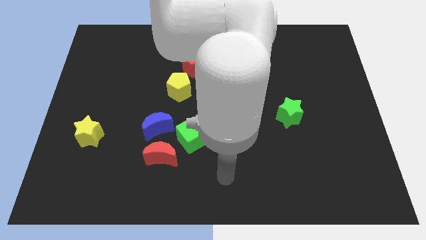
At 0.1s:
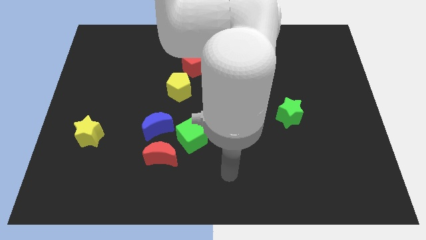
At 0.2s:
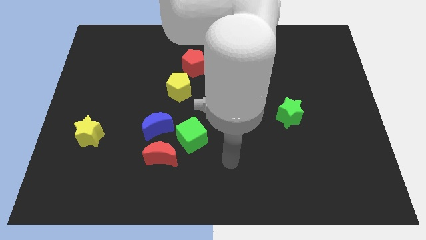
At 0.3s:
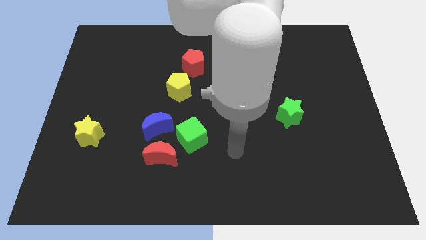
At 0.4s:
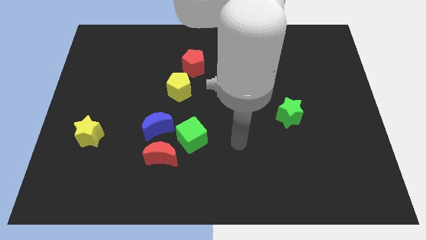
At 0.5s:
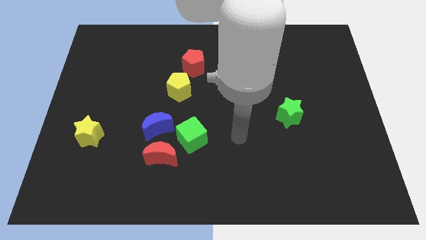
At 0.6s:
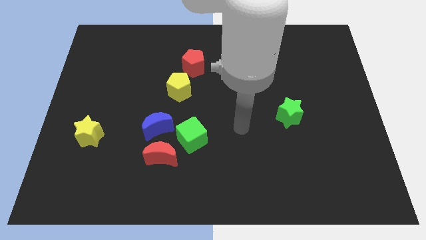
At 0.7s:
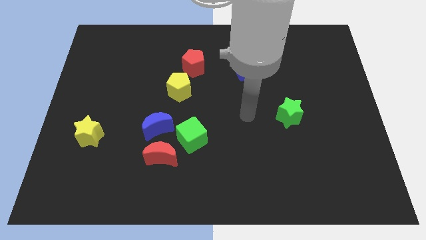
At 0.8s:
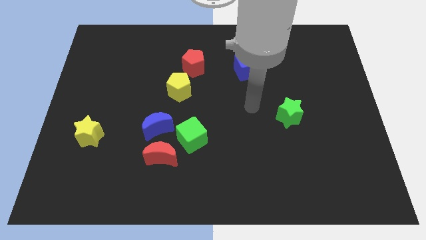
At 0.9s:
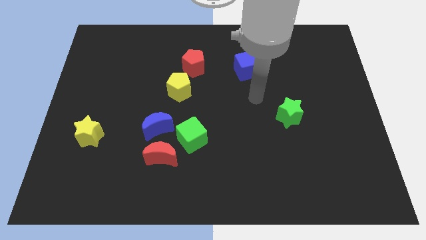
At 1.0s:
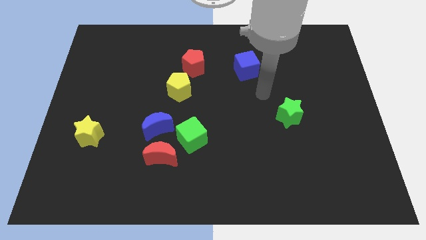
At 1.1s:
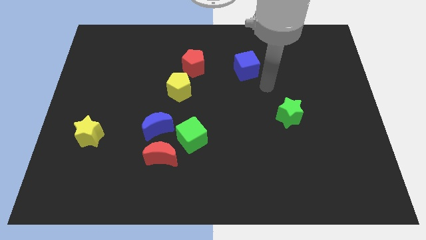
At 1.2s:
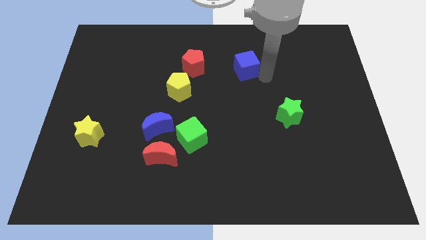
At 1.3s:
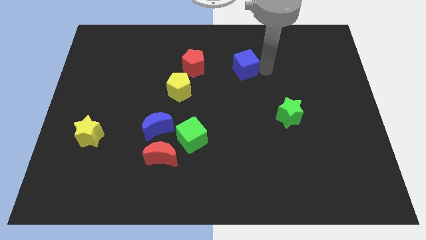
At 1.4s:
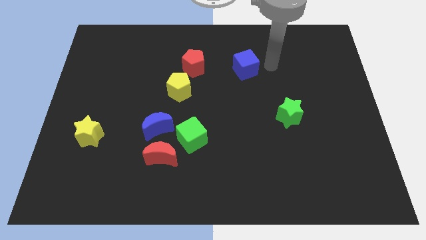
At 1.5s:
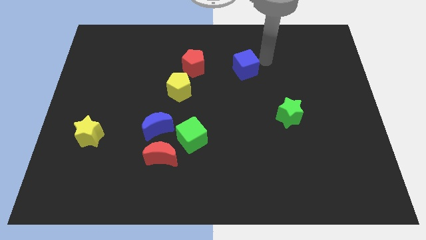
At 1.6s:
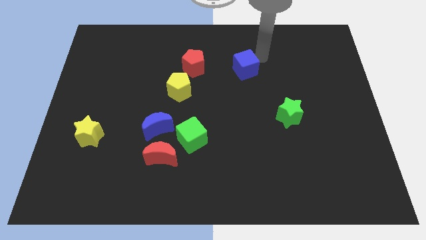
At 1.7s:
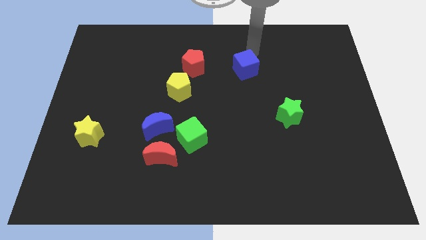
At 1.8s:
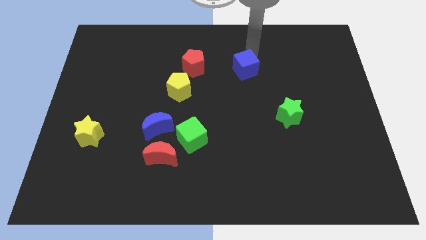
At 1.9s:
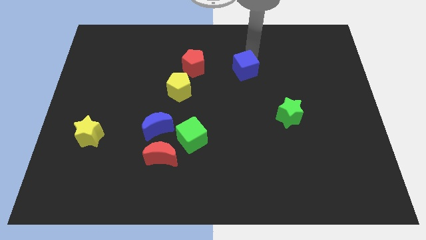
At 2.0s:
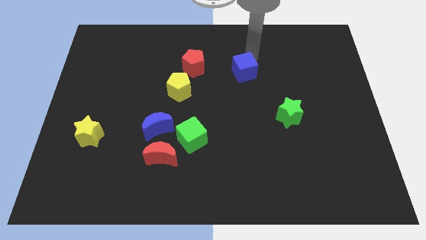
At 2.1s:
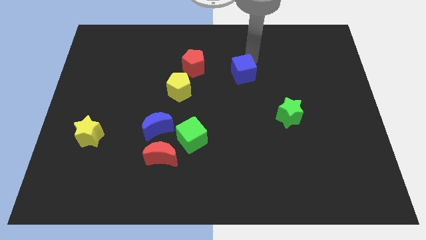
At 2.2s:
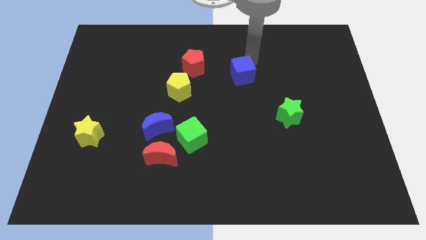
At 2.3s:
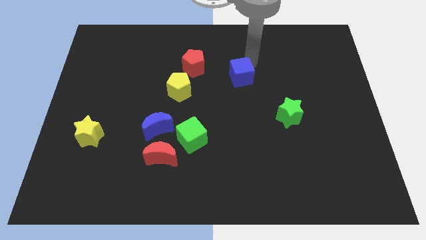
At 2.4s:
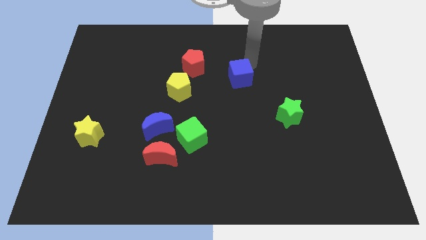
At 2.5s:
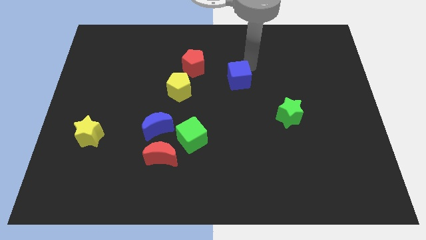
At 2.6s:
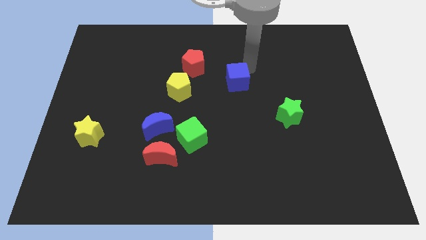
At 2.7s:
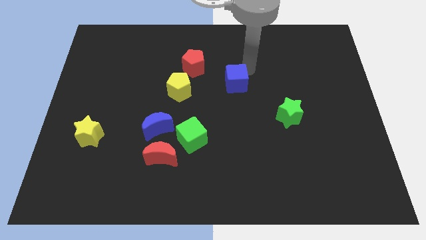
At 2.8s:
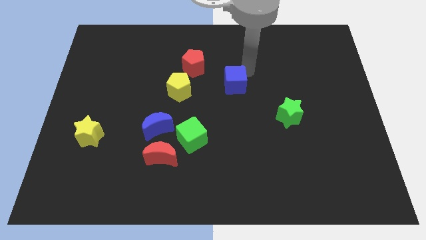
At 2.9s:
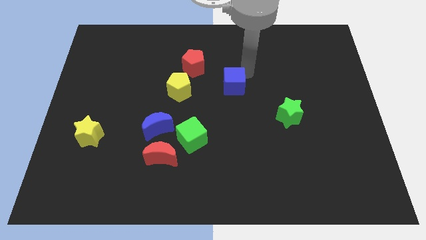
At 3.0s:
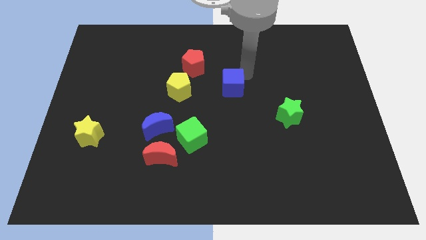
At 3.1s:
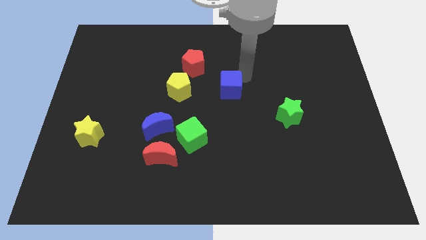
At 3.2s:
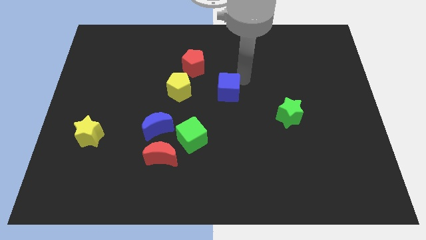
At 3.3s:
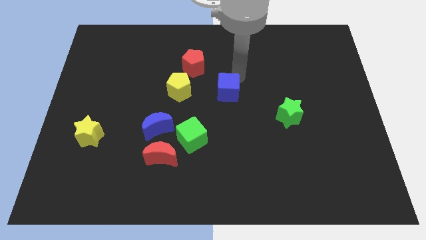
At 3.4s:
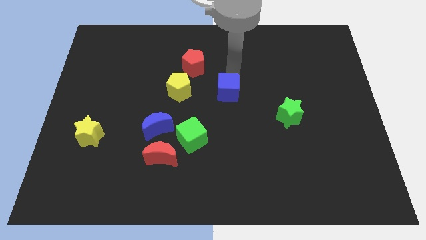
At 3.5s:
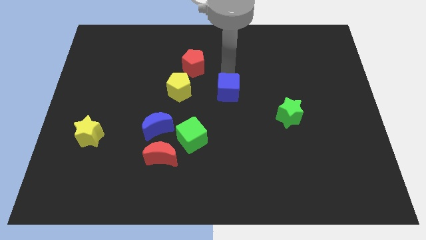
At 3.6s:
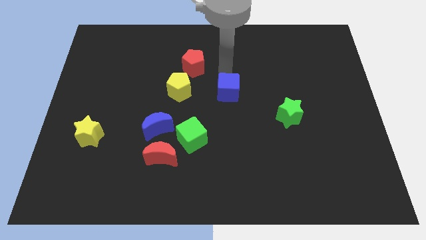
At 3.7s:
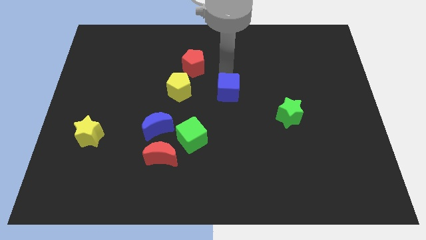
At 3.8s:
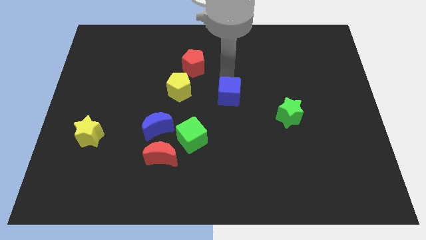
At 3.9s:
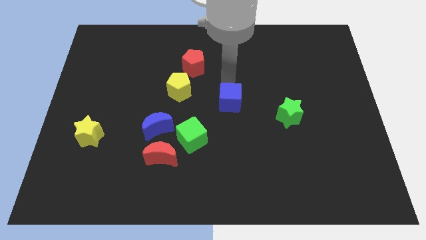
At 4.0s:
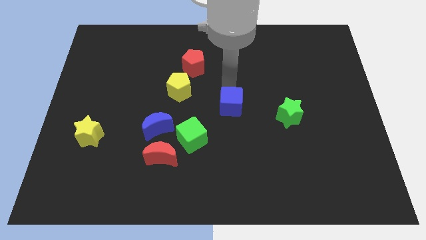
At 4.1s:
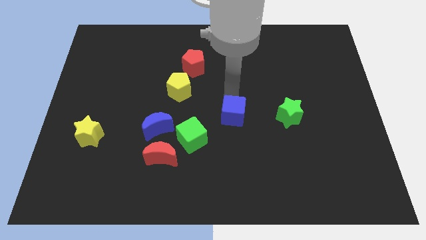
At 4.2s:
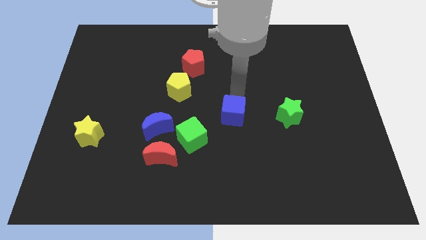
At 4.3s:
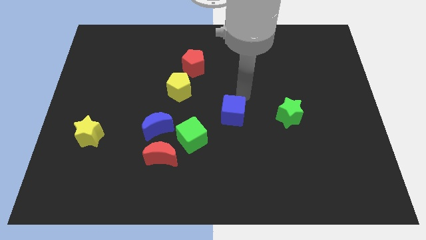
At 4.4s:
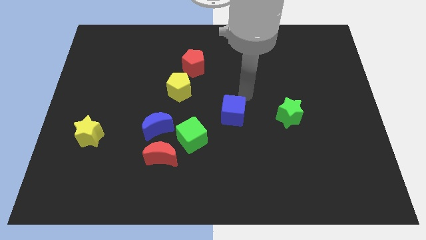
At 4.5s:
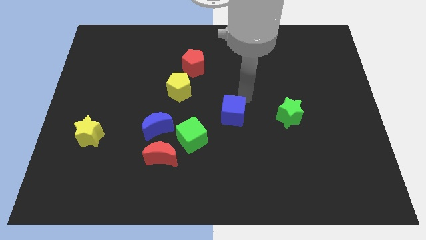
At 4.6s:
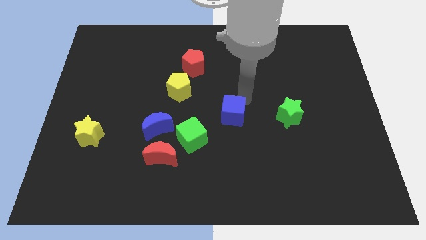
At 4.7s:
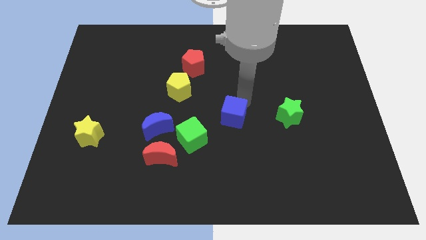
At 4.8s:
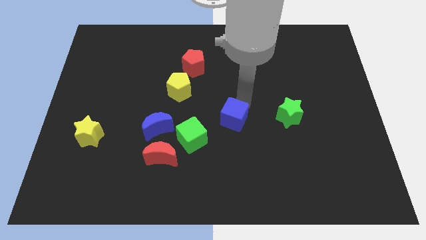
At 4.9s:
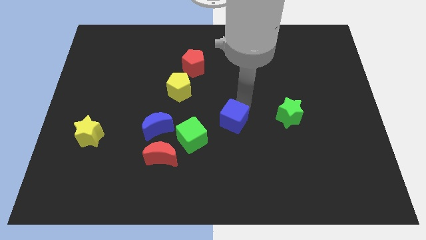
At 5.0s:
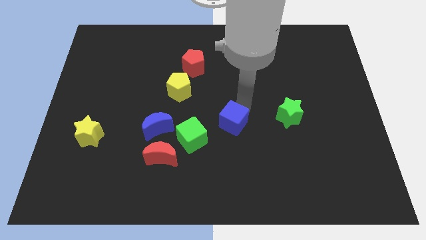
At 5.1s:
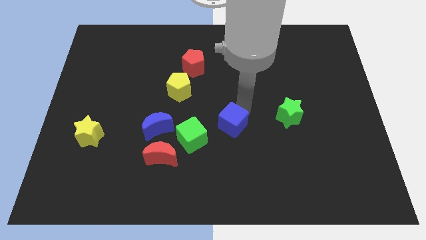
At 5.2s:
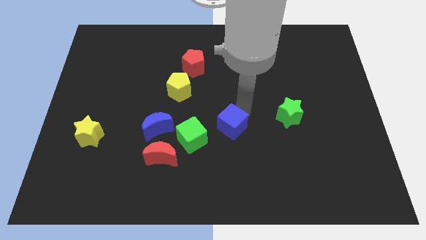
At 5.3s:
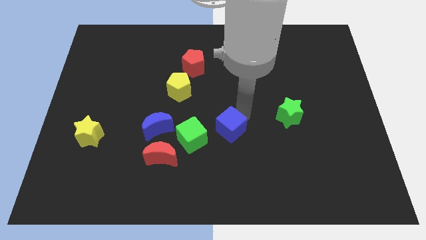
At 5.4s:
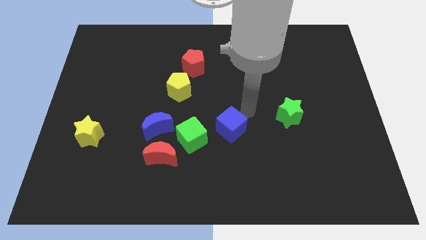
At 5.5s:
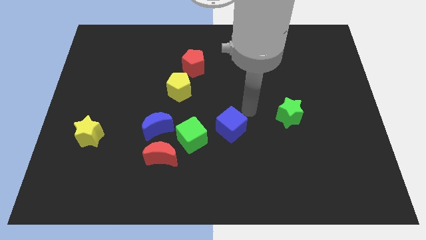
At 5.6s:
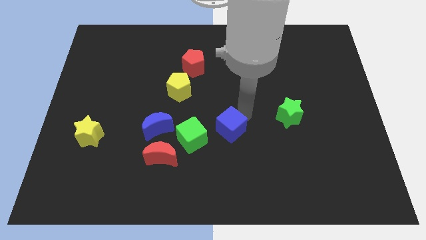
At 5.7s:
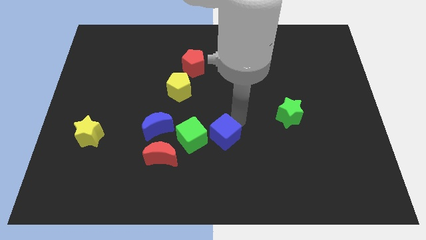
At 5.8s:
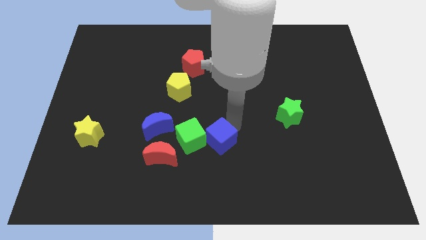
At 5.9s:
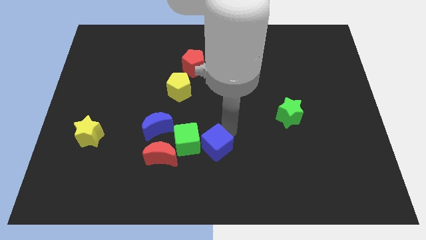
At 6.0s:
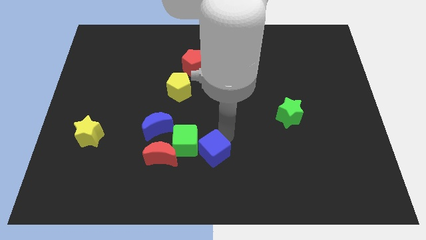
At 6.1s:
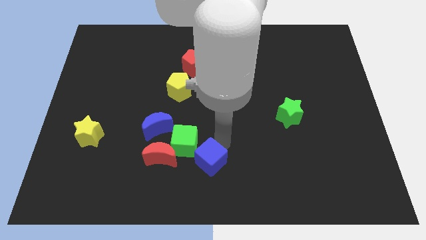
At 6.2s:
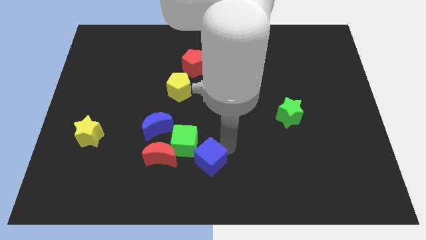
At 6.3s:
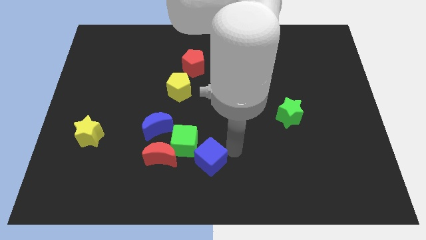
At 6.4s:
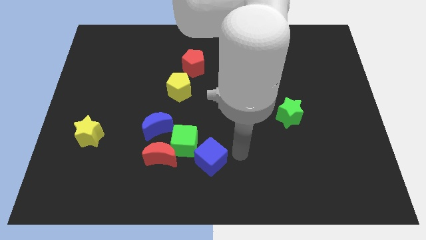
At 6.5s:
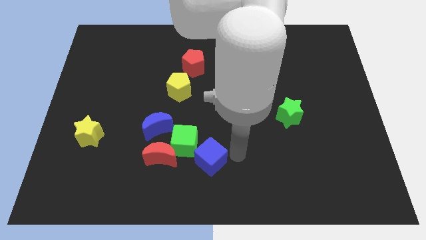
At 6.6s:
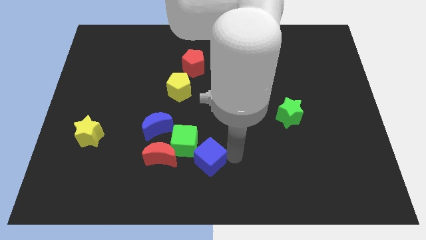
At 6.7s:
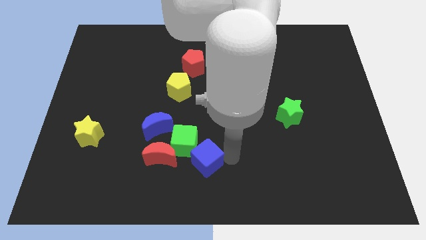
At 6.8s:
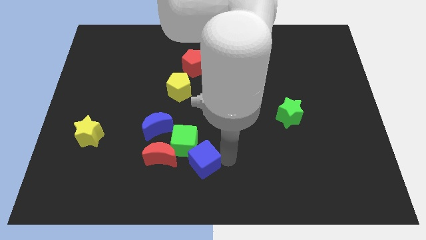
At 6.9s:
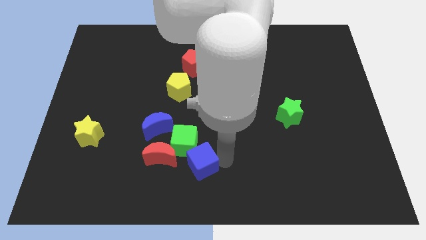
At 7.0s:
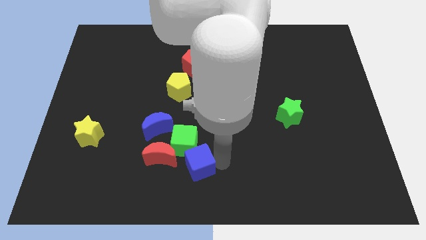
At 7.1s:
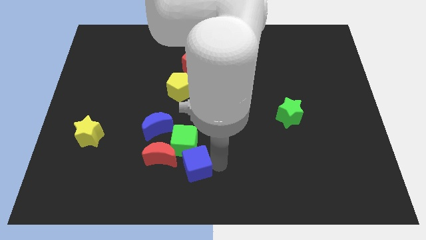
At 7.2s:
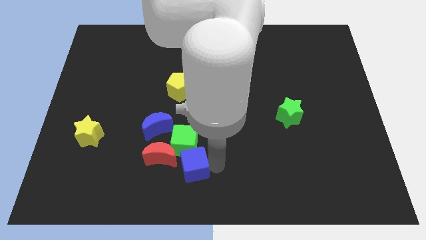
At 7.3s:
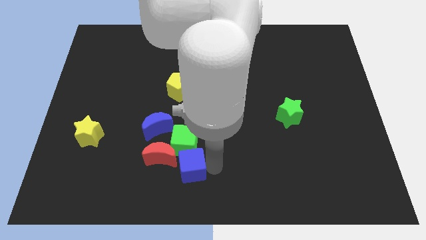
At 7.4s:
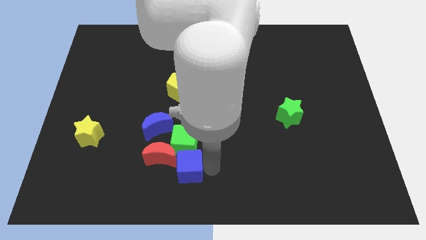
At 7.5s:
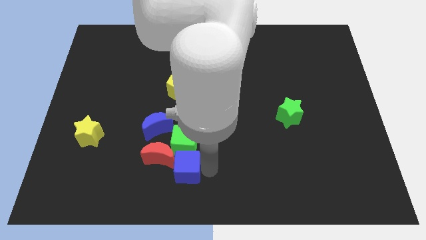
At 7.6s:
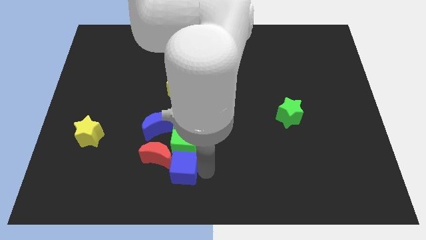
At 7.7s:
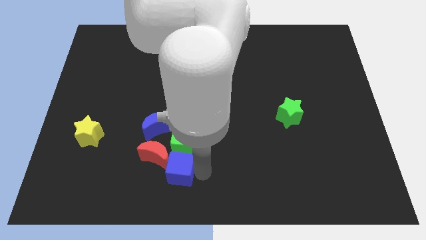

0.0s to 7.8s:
push the blue cube to the red moon
